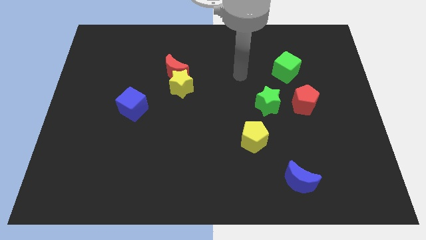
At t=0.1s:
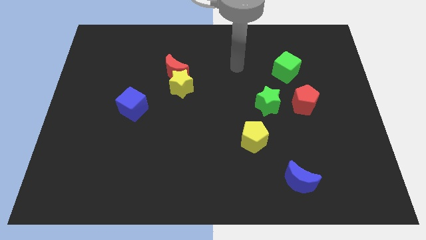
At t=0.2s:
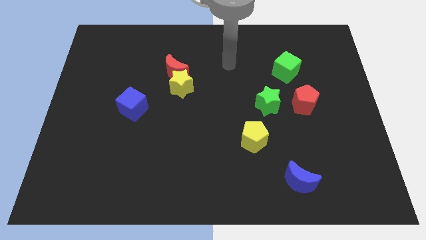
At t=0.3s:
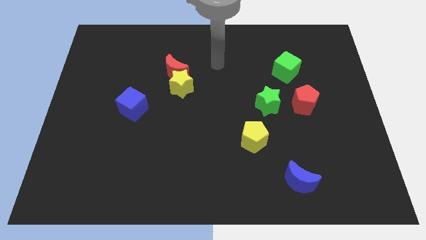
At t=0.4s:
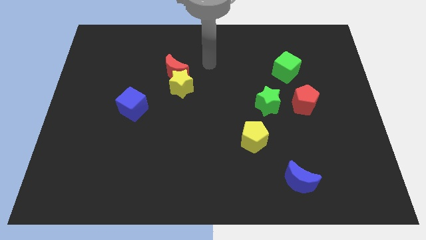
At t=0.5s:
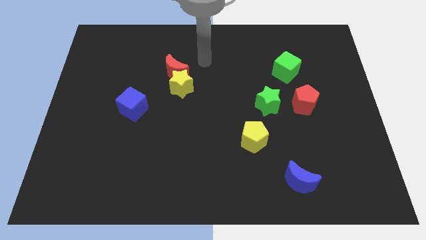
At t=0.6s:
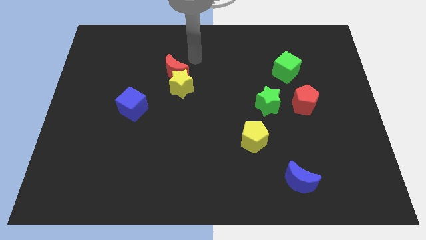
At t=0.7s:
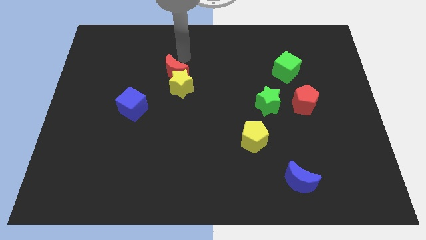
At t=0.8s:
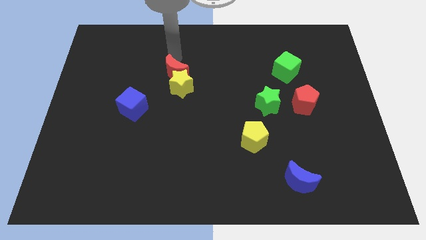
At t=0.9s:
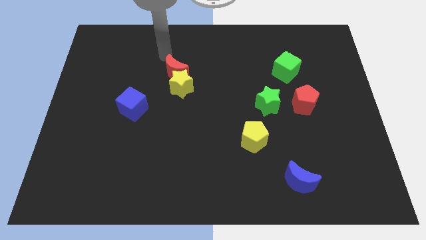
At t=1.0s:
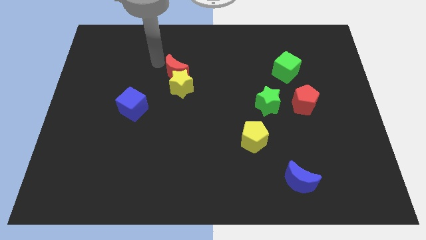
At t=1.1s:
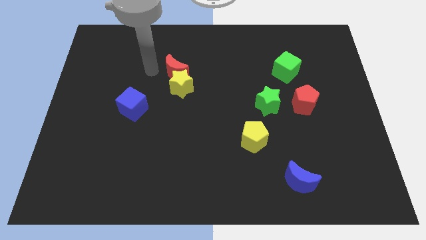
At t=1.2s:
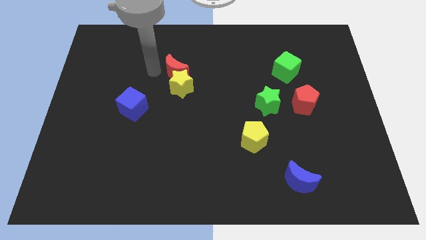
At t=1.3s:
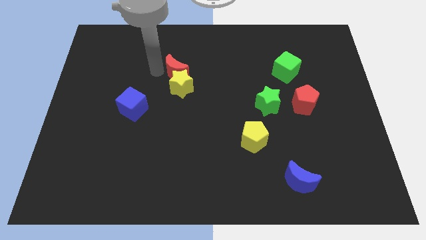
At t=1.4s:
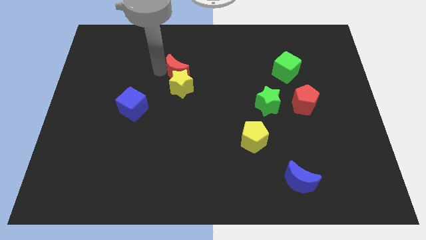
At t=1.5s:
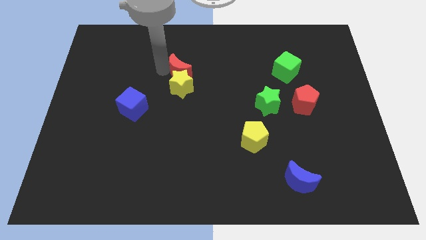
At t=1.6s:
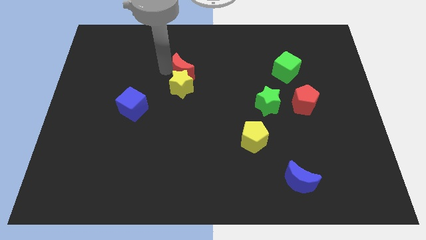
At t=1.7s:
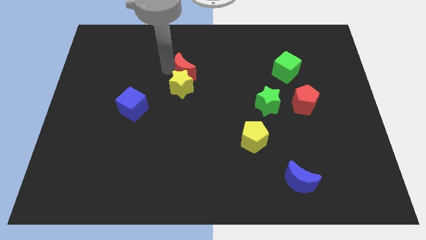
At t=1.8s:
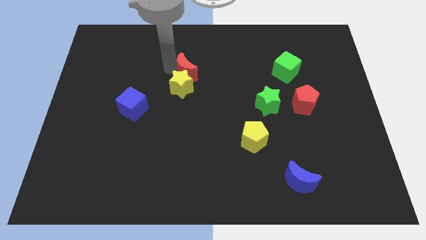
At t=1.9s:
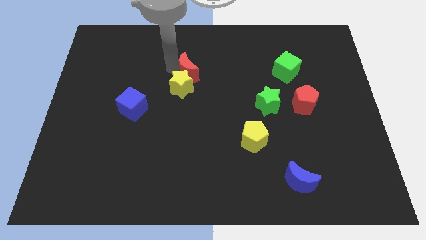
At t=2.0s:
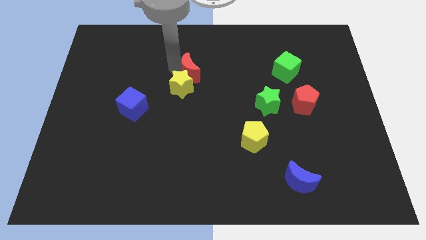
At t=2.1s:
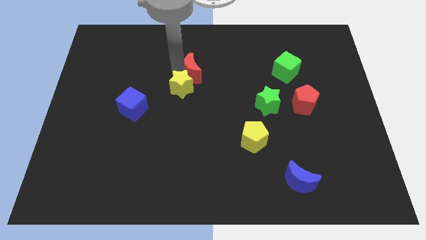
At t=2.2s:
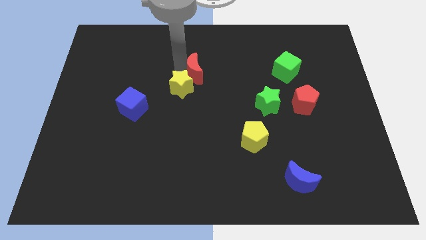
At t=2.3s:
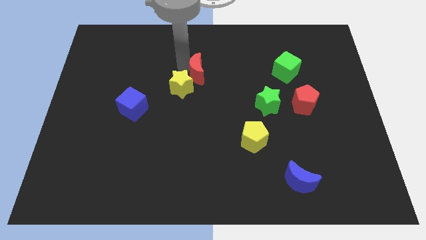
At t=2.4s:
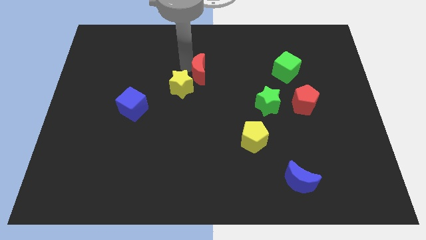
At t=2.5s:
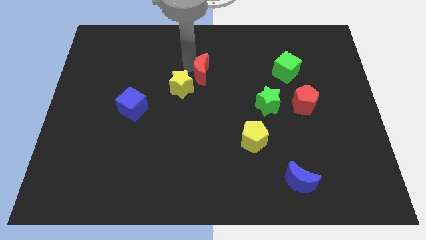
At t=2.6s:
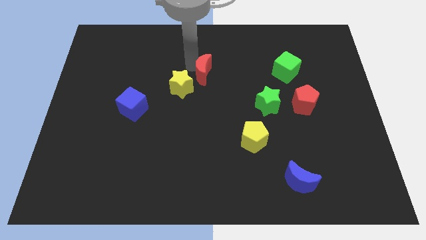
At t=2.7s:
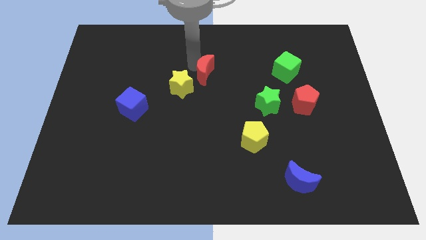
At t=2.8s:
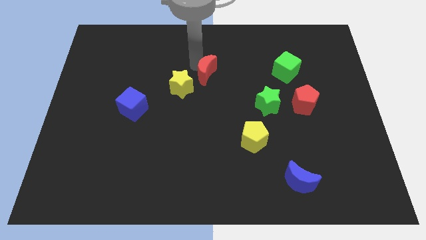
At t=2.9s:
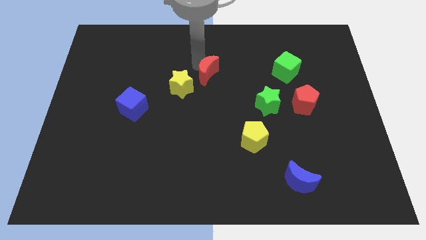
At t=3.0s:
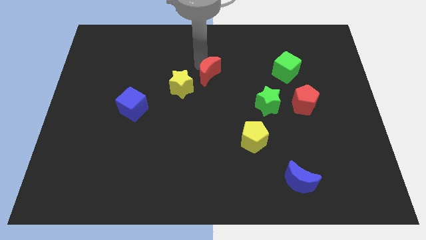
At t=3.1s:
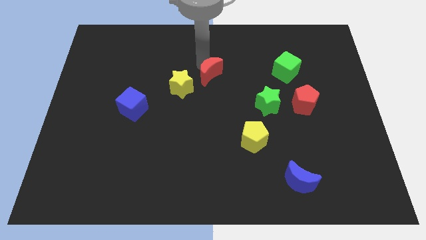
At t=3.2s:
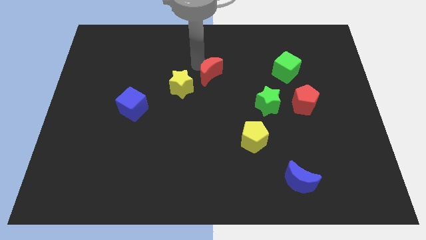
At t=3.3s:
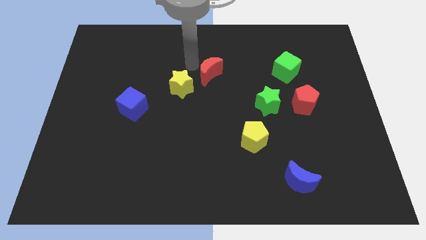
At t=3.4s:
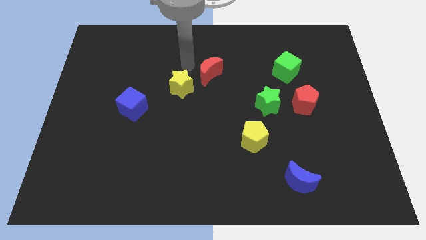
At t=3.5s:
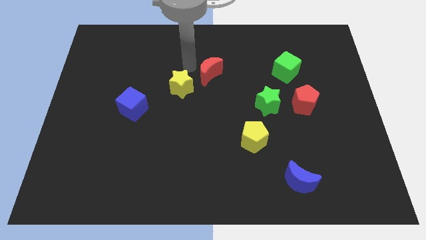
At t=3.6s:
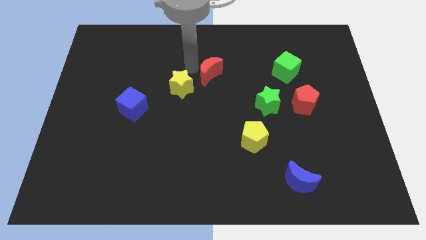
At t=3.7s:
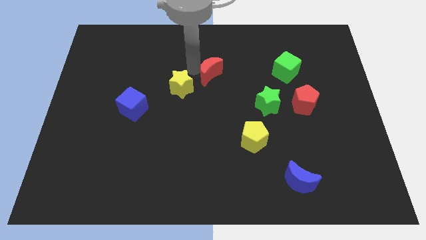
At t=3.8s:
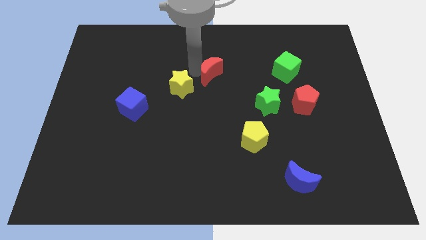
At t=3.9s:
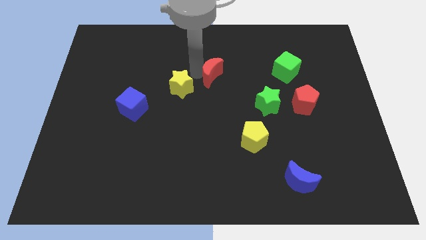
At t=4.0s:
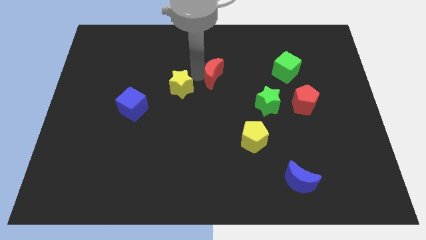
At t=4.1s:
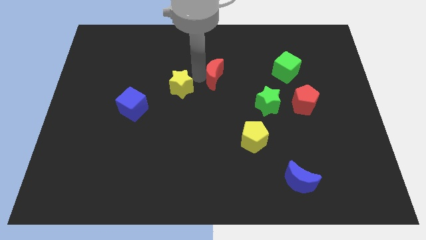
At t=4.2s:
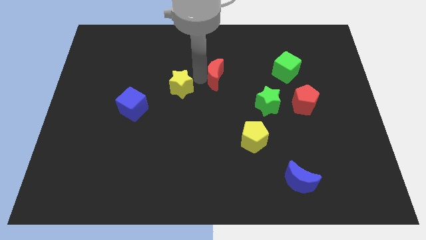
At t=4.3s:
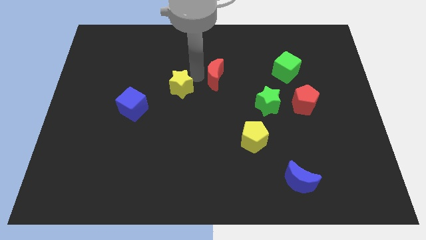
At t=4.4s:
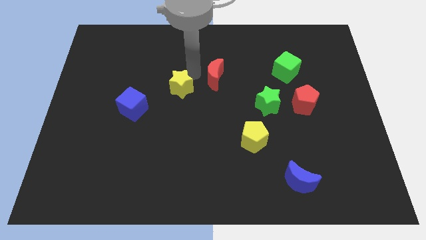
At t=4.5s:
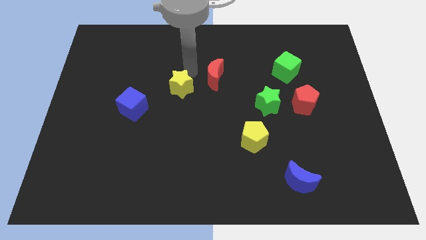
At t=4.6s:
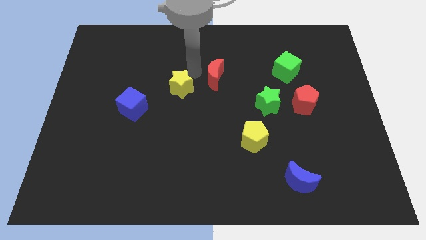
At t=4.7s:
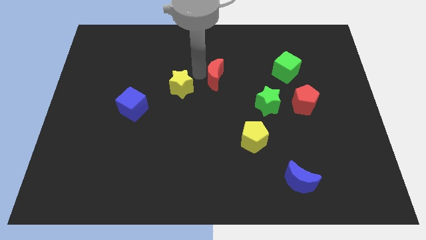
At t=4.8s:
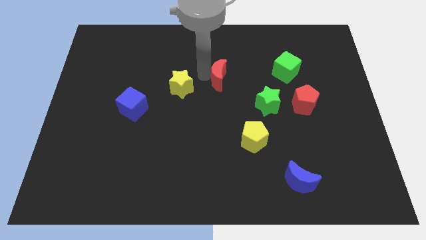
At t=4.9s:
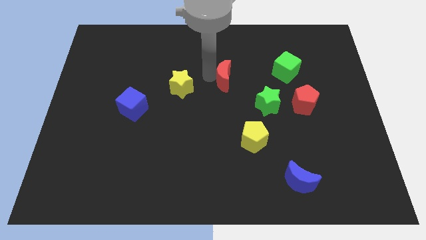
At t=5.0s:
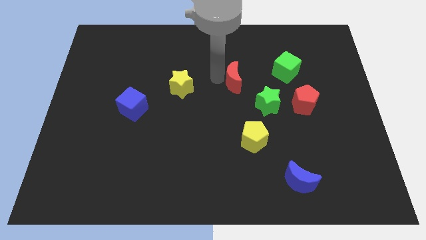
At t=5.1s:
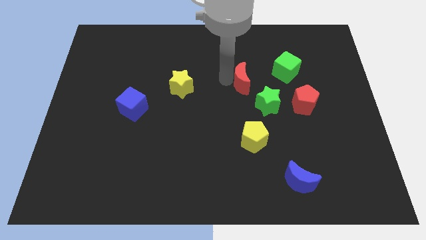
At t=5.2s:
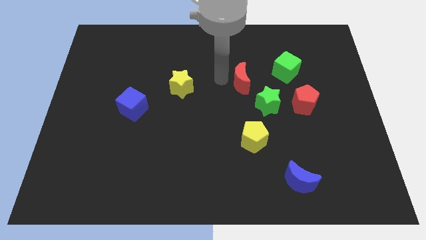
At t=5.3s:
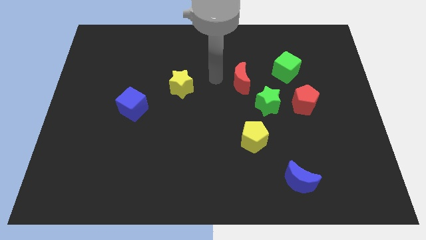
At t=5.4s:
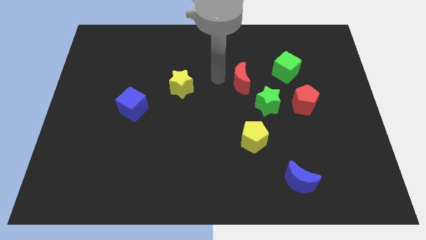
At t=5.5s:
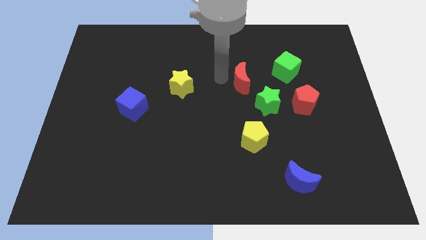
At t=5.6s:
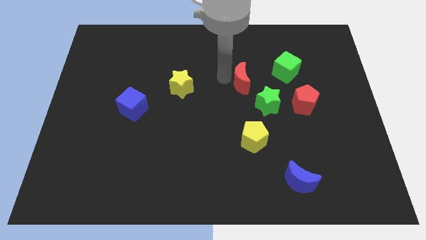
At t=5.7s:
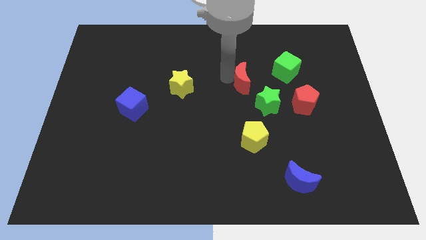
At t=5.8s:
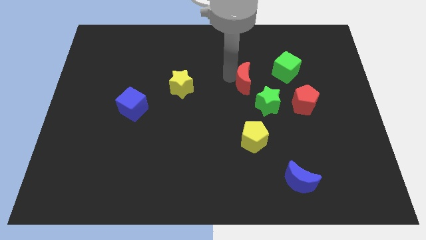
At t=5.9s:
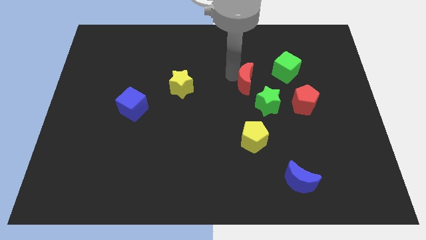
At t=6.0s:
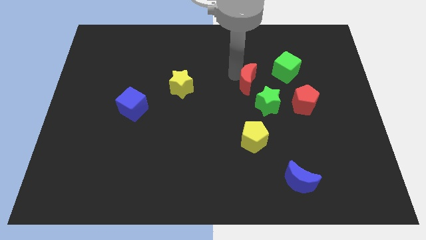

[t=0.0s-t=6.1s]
slide the red moon to the bottom left side of the green cube

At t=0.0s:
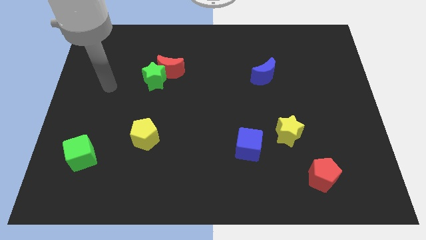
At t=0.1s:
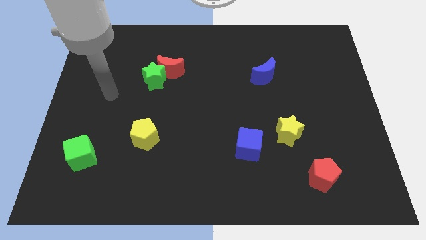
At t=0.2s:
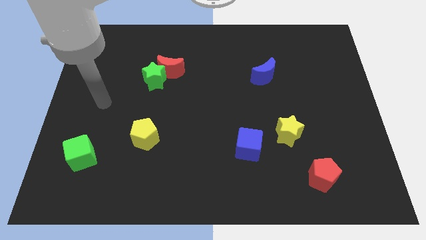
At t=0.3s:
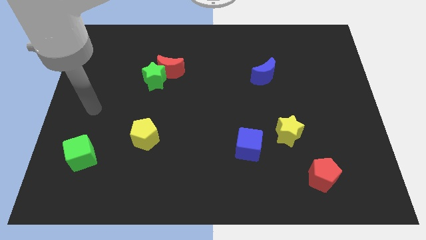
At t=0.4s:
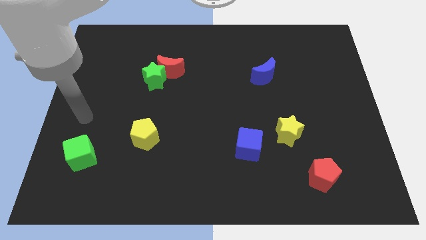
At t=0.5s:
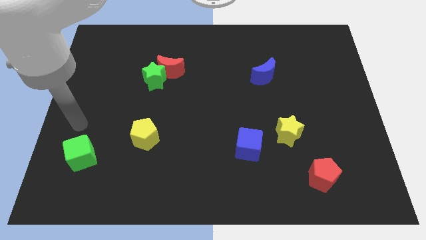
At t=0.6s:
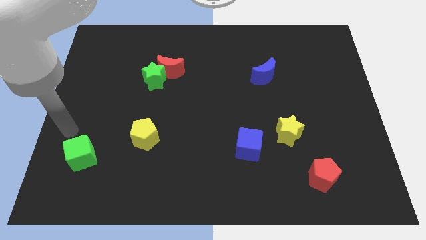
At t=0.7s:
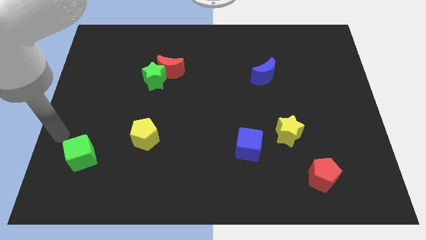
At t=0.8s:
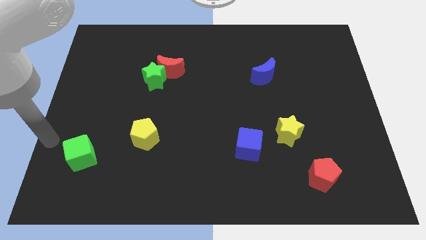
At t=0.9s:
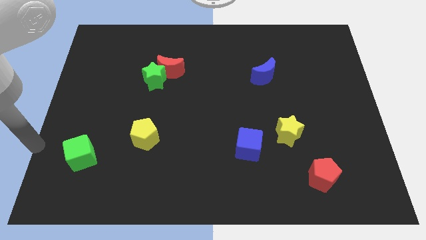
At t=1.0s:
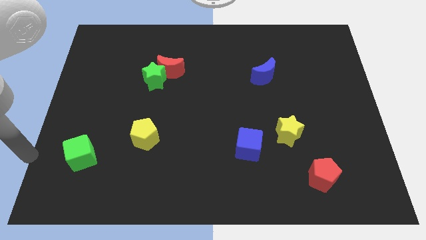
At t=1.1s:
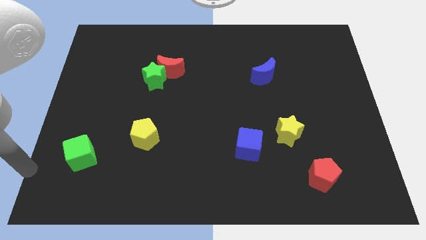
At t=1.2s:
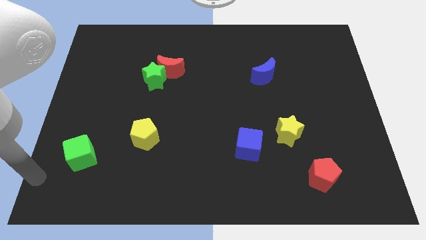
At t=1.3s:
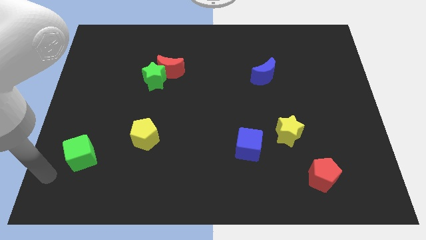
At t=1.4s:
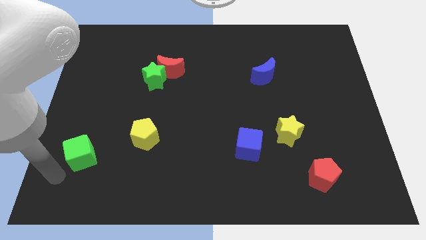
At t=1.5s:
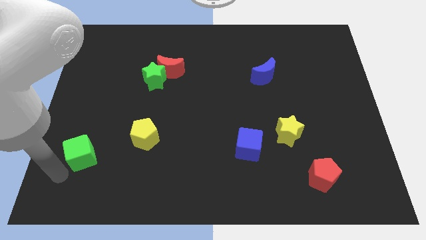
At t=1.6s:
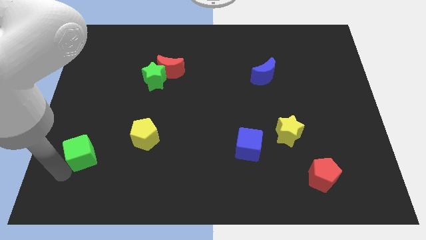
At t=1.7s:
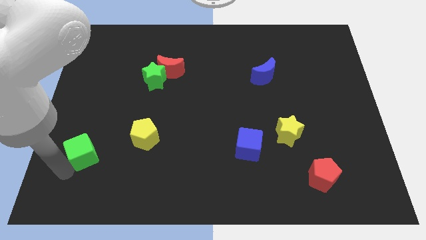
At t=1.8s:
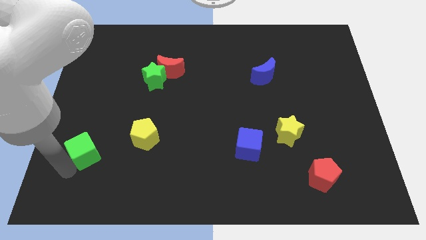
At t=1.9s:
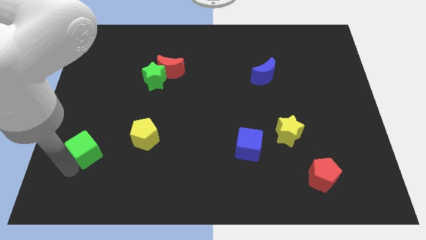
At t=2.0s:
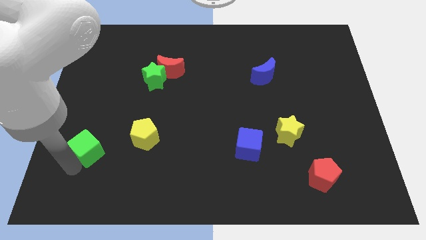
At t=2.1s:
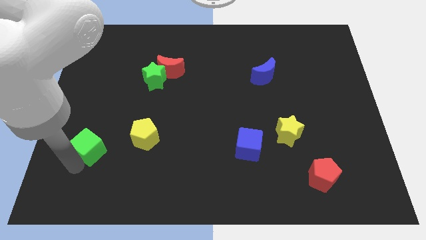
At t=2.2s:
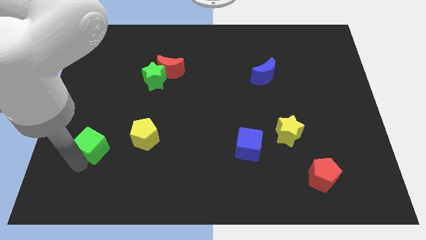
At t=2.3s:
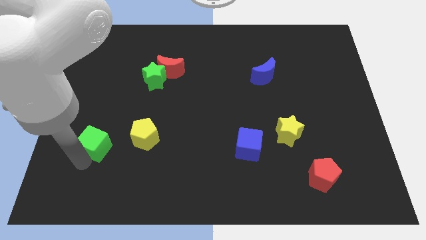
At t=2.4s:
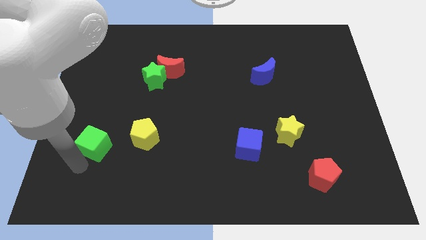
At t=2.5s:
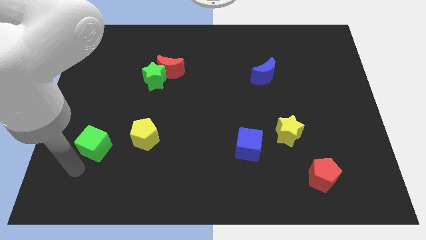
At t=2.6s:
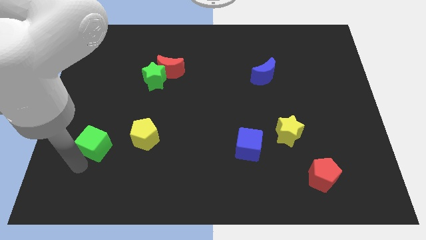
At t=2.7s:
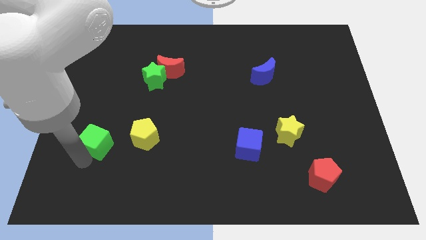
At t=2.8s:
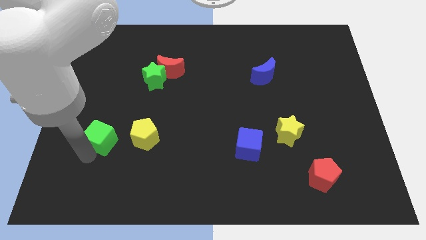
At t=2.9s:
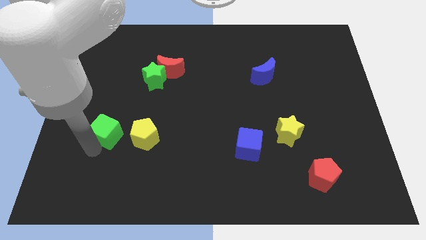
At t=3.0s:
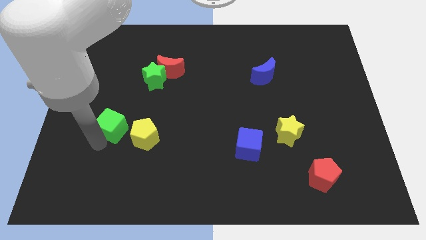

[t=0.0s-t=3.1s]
move the green cube to the top left of the yellow pentagon
